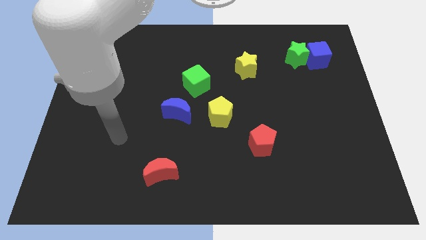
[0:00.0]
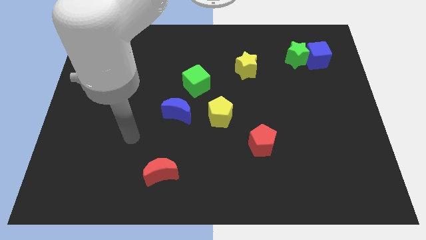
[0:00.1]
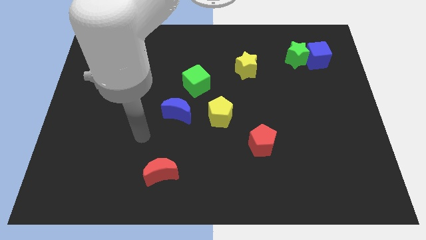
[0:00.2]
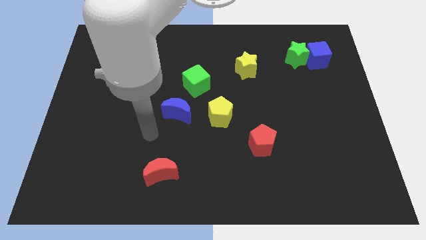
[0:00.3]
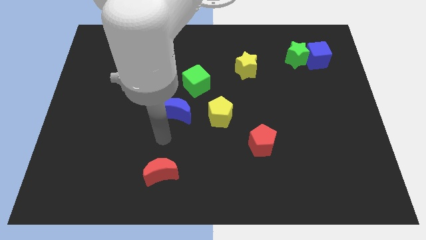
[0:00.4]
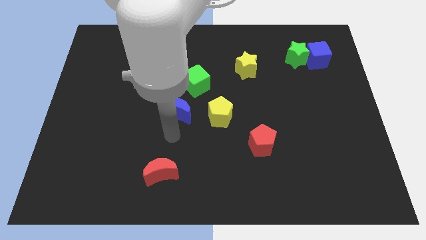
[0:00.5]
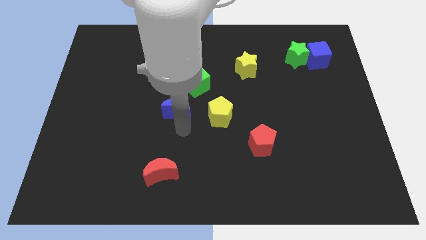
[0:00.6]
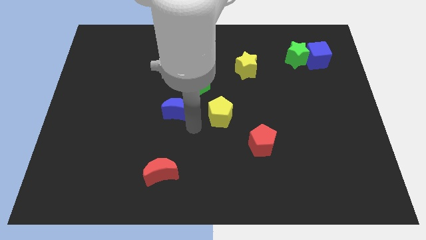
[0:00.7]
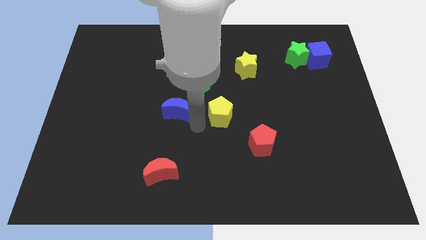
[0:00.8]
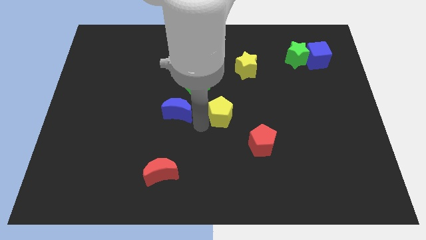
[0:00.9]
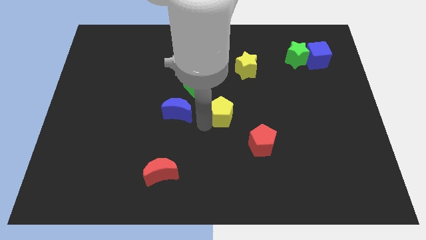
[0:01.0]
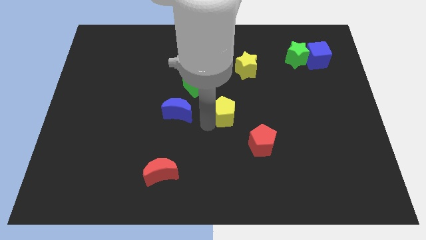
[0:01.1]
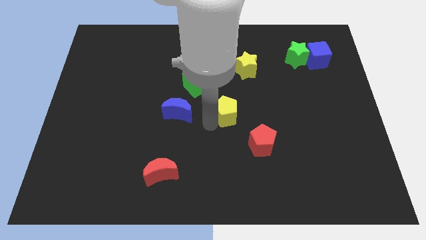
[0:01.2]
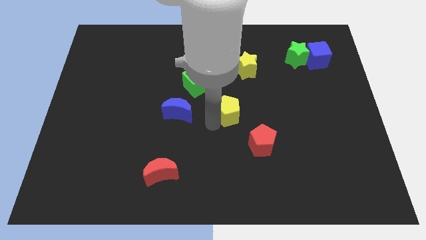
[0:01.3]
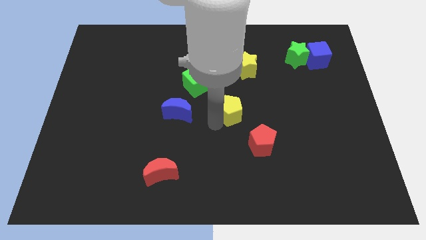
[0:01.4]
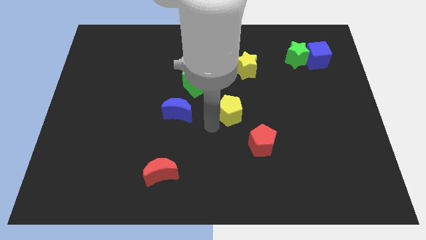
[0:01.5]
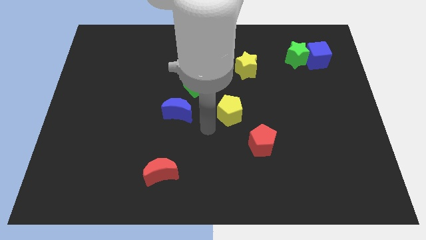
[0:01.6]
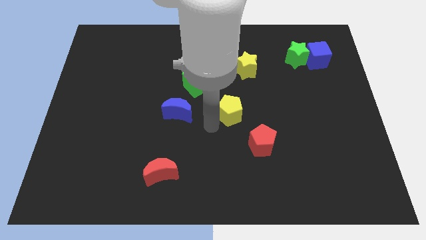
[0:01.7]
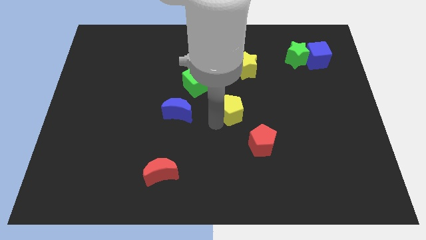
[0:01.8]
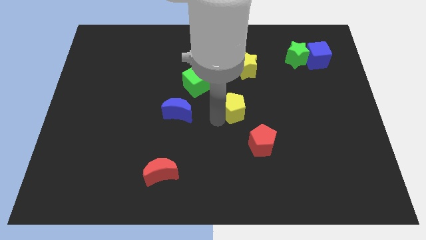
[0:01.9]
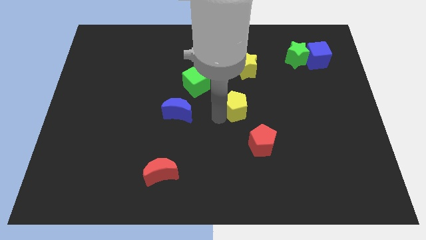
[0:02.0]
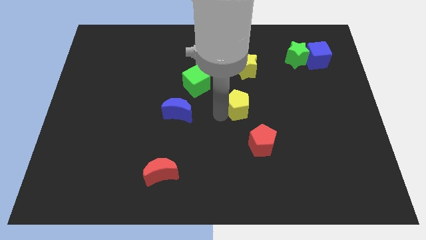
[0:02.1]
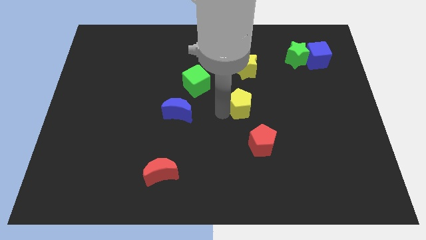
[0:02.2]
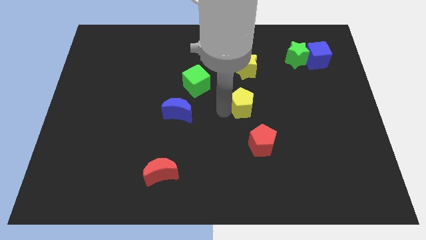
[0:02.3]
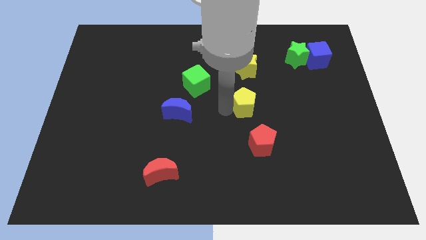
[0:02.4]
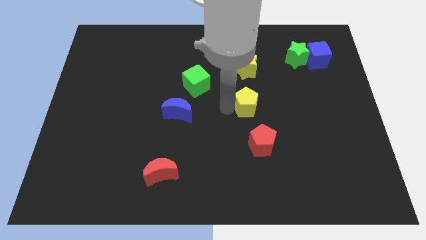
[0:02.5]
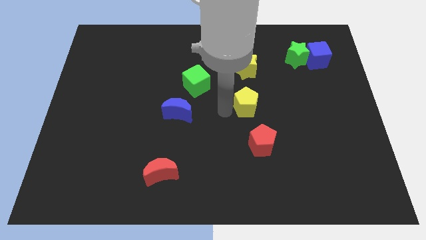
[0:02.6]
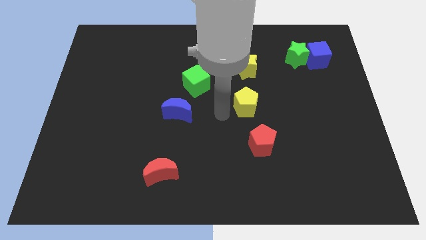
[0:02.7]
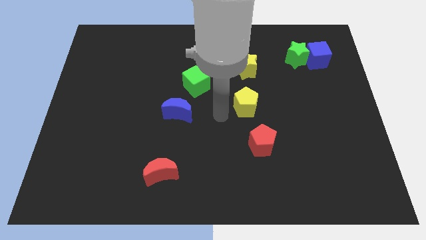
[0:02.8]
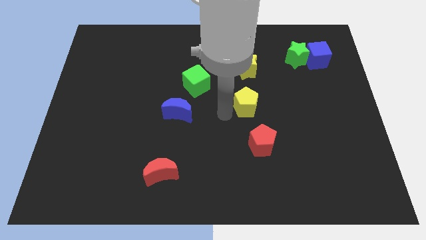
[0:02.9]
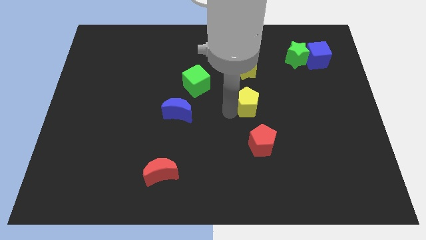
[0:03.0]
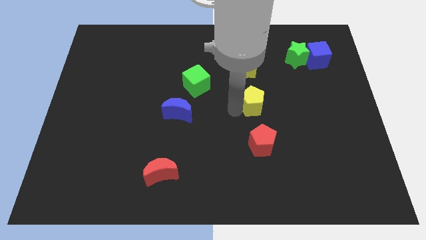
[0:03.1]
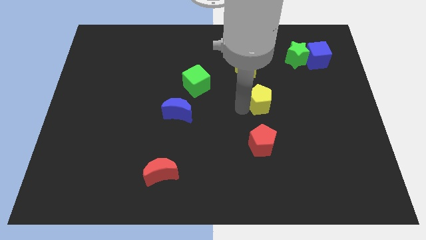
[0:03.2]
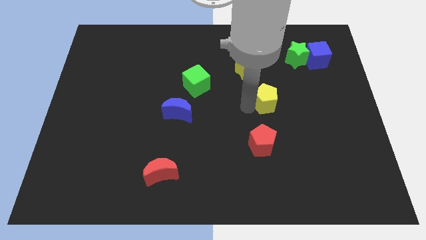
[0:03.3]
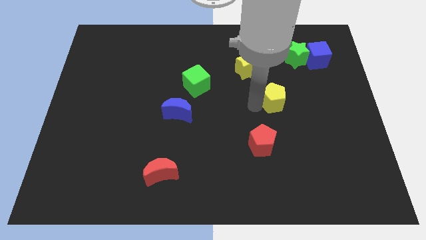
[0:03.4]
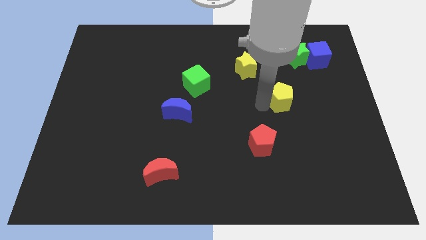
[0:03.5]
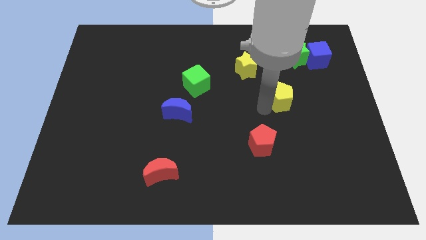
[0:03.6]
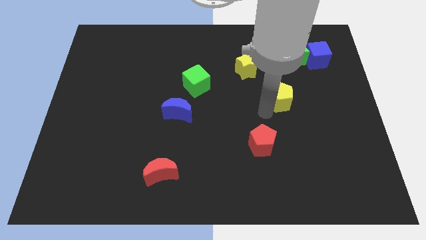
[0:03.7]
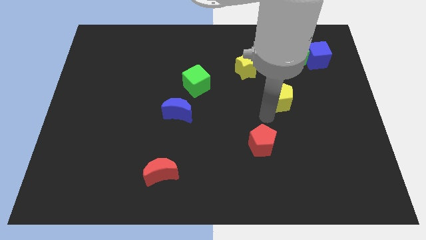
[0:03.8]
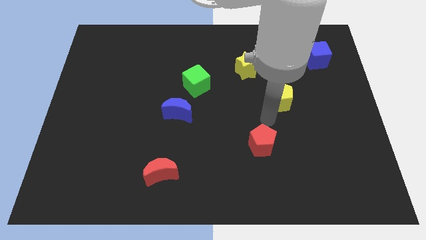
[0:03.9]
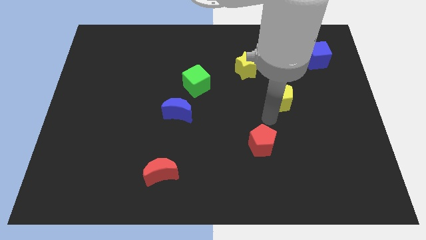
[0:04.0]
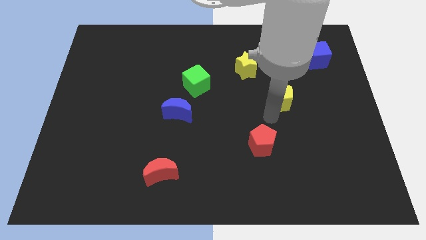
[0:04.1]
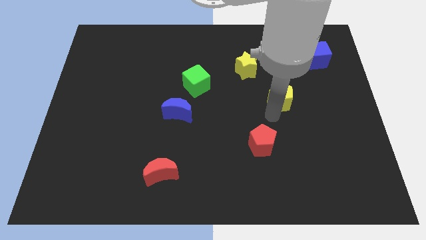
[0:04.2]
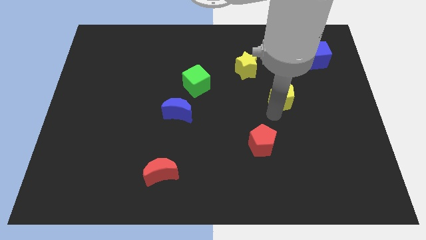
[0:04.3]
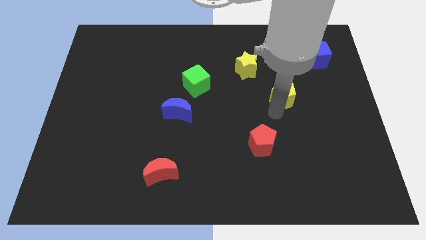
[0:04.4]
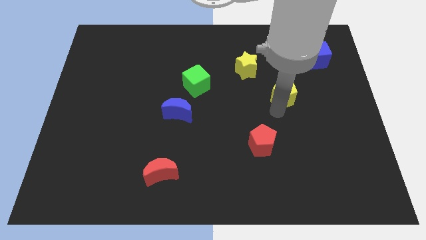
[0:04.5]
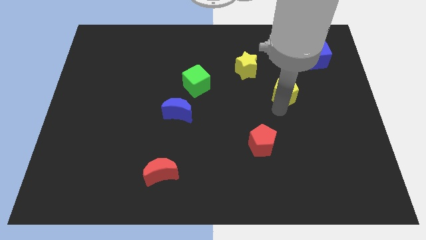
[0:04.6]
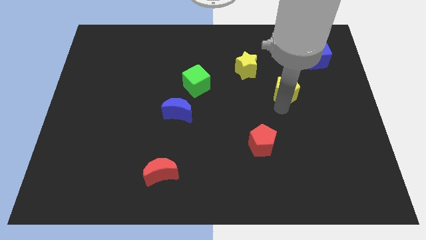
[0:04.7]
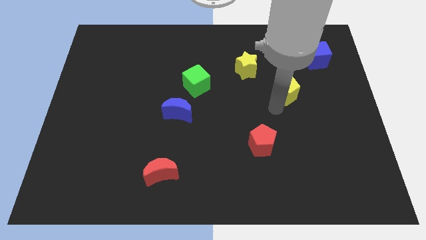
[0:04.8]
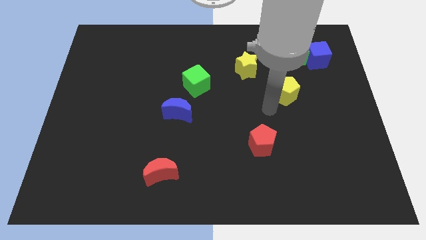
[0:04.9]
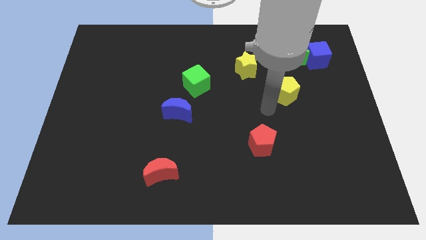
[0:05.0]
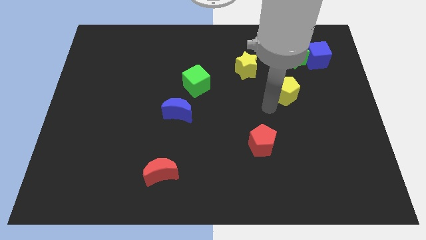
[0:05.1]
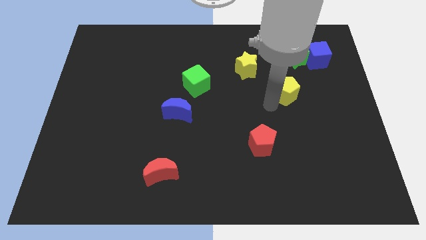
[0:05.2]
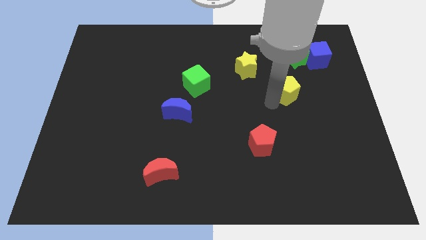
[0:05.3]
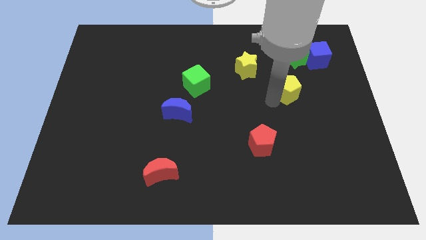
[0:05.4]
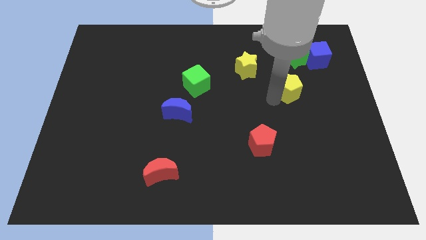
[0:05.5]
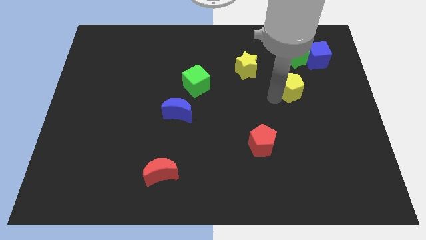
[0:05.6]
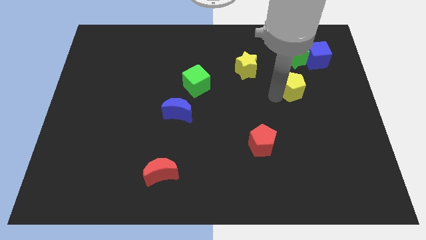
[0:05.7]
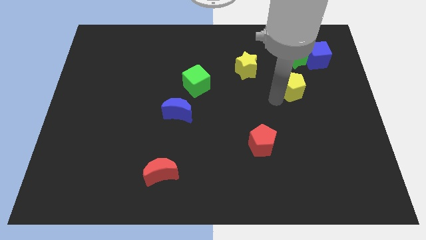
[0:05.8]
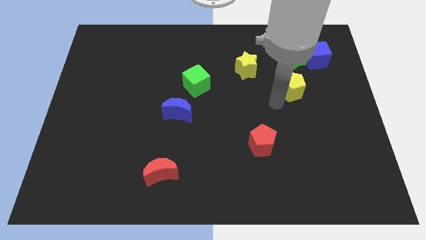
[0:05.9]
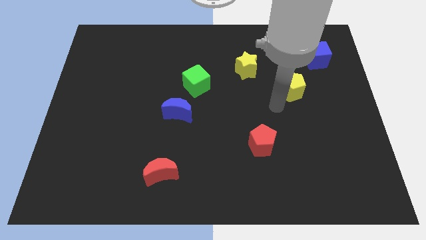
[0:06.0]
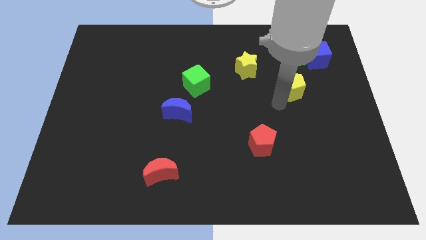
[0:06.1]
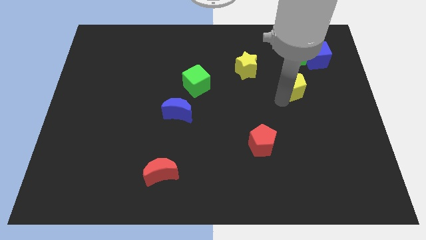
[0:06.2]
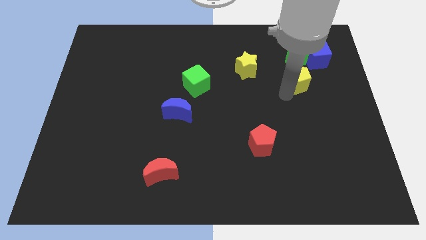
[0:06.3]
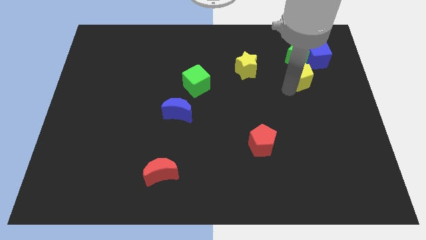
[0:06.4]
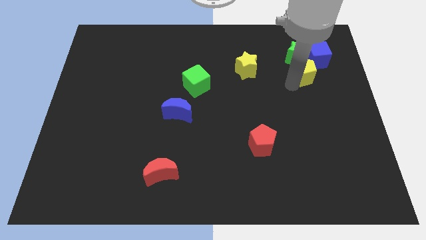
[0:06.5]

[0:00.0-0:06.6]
put the yellow pentagon diagonally down and to the right of the green star

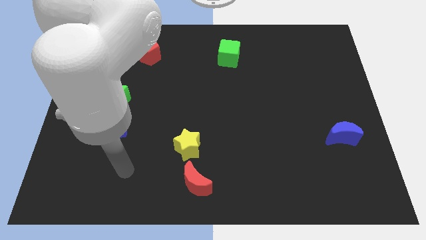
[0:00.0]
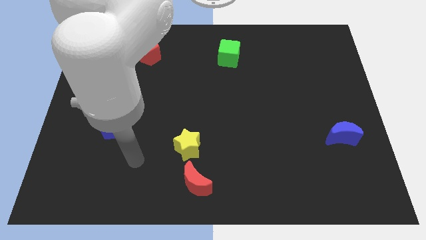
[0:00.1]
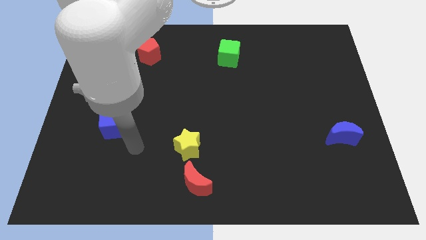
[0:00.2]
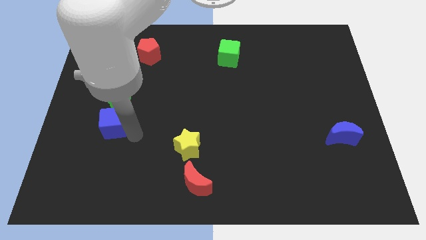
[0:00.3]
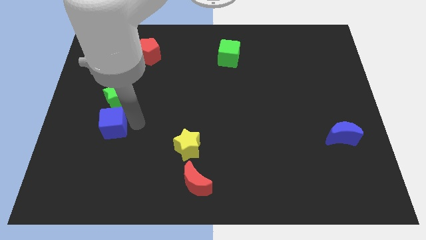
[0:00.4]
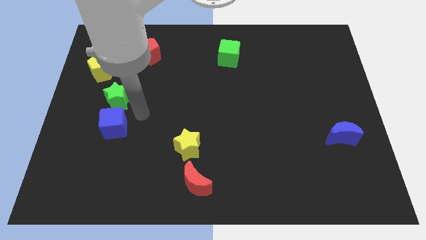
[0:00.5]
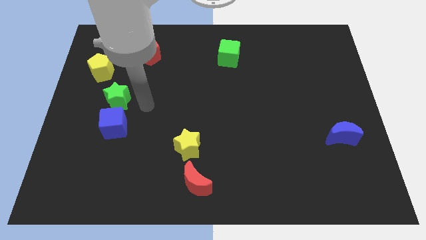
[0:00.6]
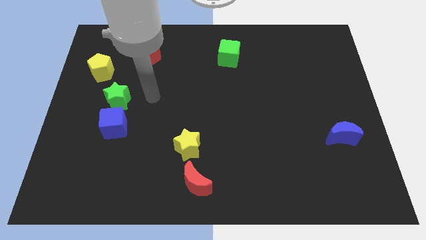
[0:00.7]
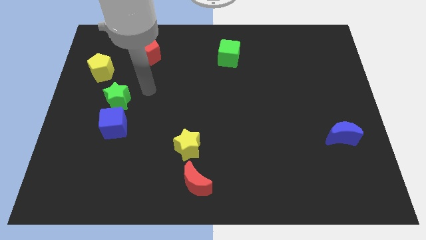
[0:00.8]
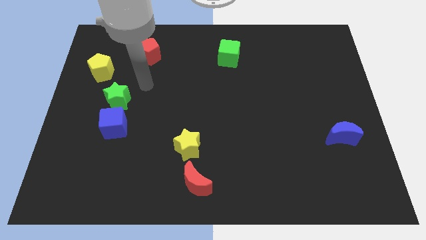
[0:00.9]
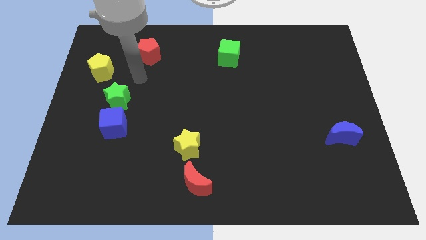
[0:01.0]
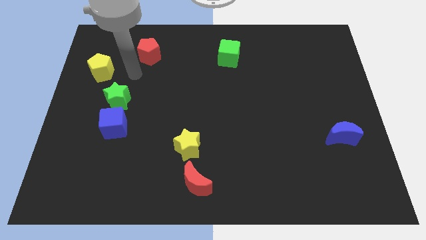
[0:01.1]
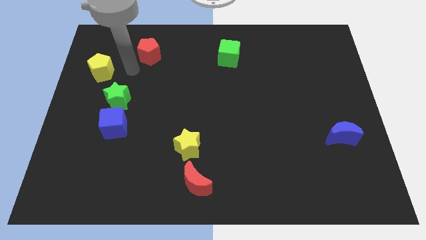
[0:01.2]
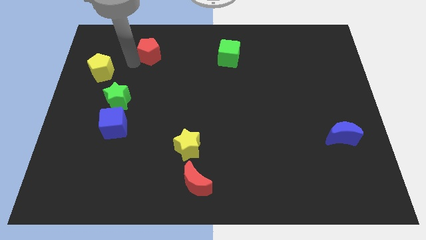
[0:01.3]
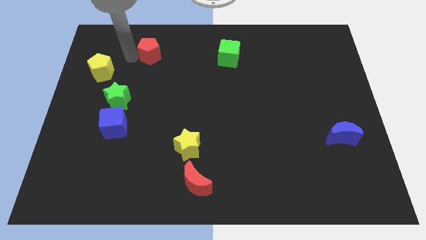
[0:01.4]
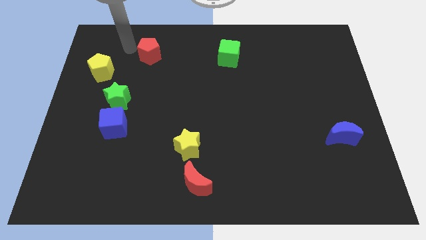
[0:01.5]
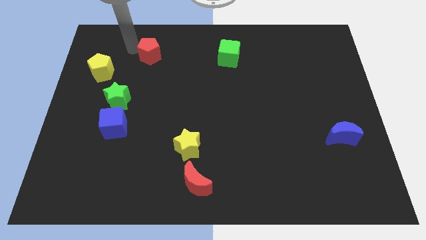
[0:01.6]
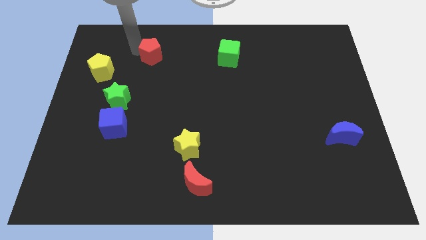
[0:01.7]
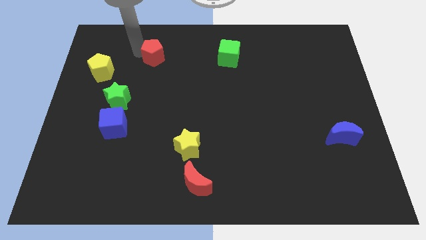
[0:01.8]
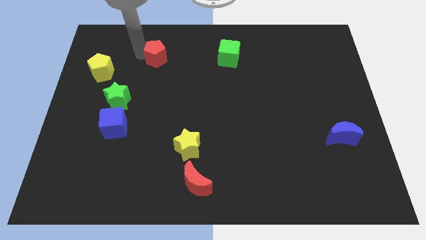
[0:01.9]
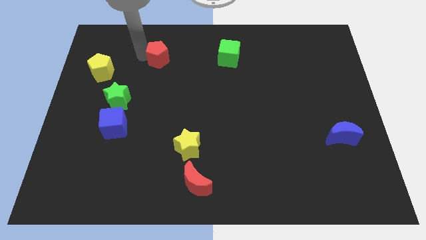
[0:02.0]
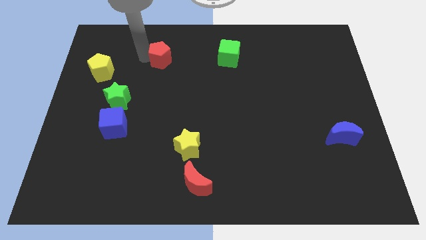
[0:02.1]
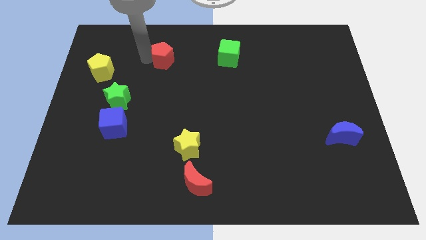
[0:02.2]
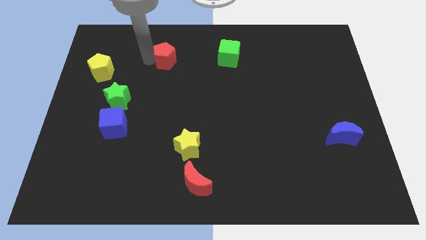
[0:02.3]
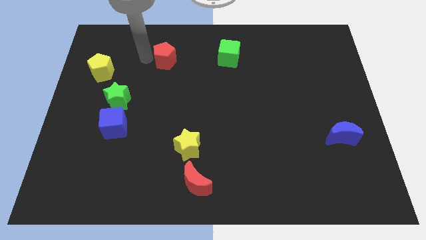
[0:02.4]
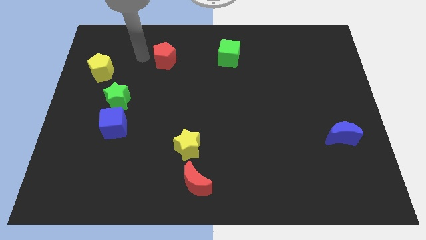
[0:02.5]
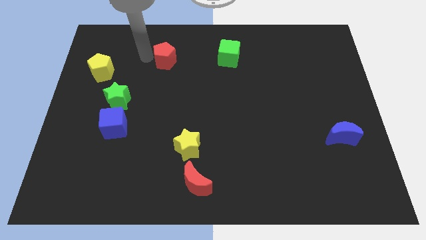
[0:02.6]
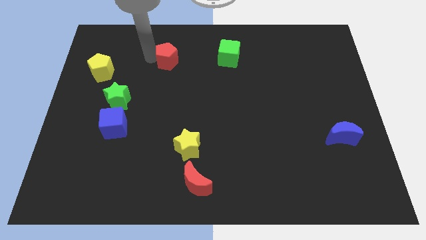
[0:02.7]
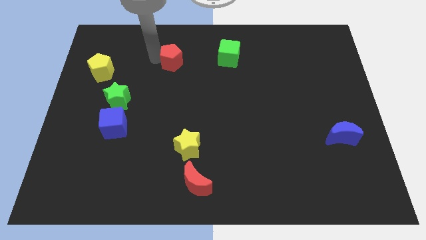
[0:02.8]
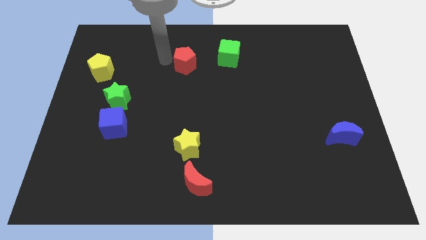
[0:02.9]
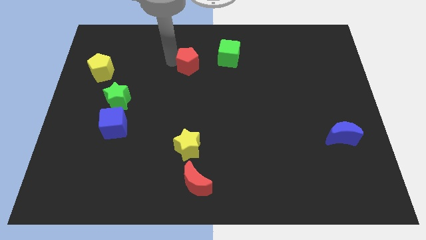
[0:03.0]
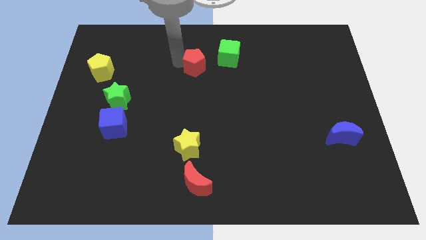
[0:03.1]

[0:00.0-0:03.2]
slide the red pentagon to the bottom left side of the green cube
